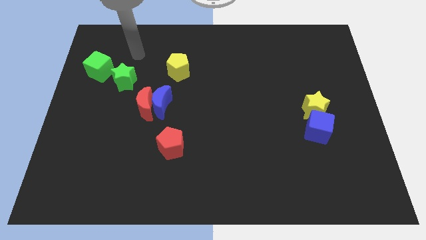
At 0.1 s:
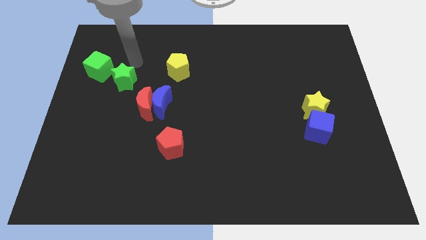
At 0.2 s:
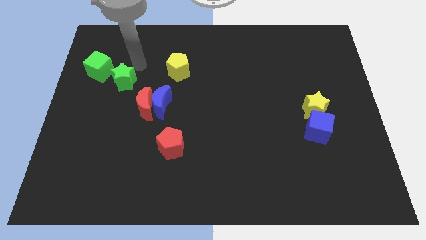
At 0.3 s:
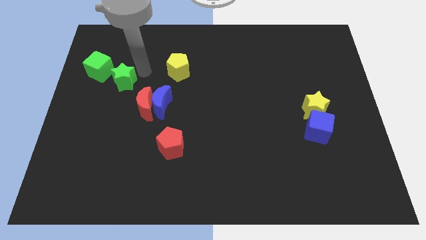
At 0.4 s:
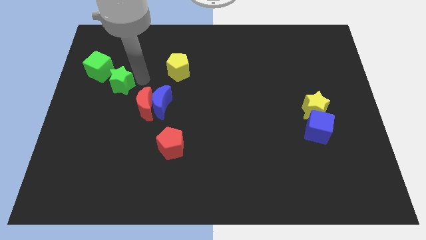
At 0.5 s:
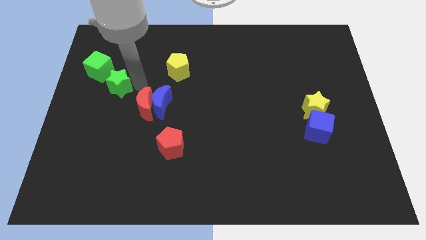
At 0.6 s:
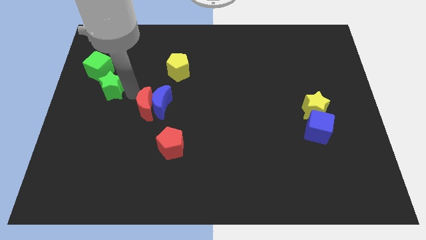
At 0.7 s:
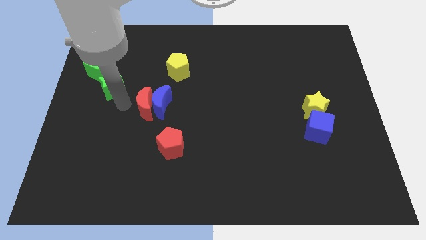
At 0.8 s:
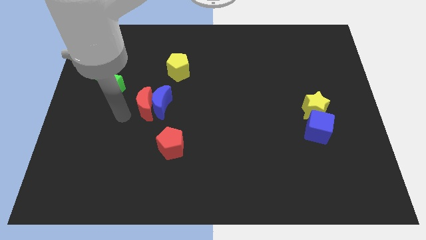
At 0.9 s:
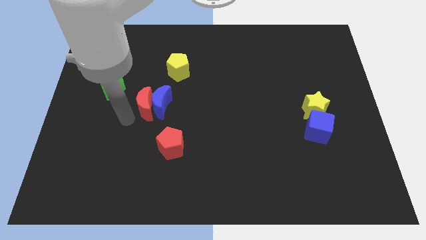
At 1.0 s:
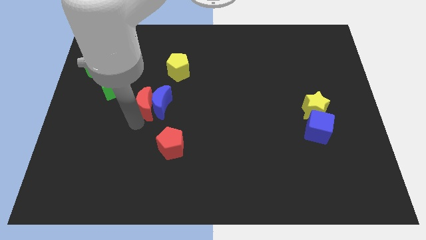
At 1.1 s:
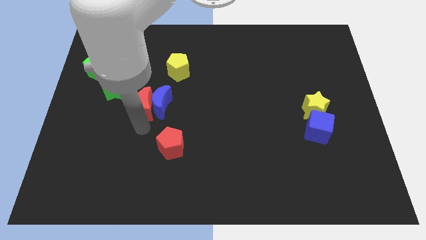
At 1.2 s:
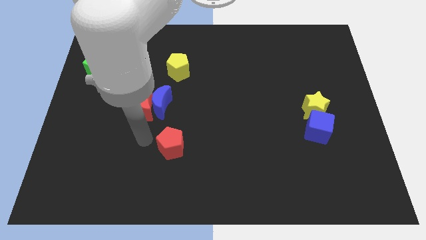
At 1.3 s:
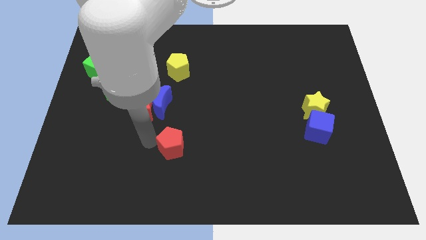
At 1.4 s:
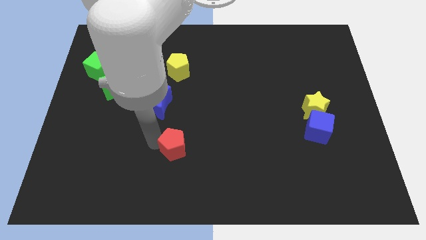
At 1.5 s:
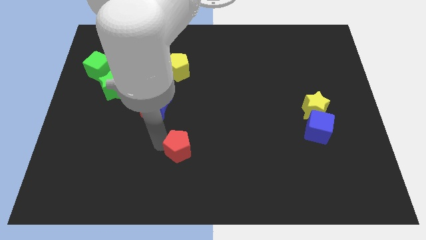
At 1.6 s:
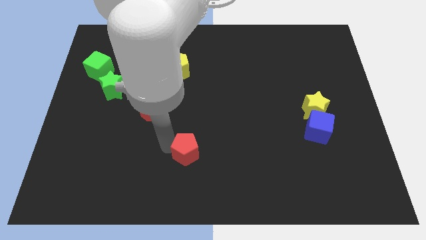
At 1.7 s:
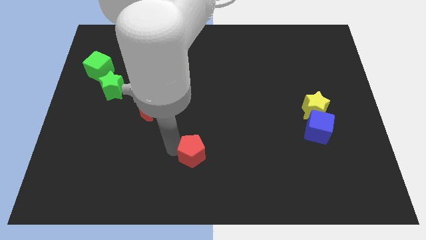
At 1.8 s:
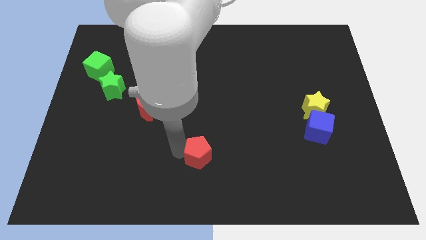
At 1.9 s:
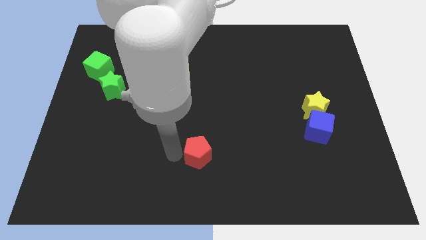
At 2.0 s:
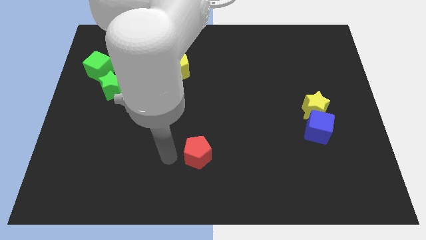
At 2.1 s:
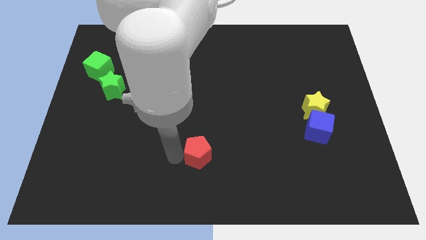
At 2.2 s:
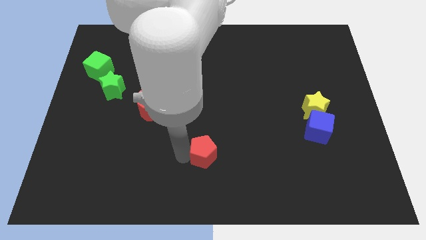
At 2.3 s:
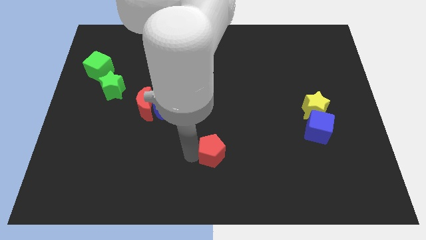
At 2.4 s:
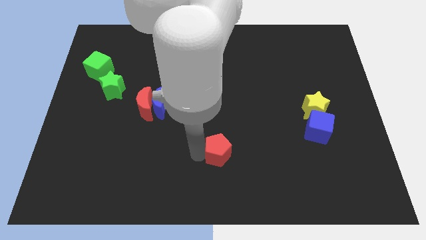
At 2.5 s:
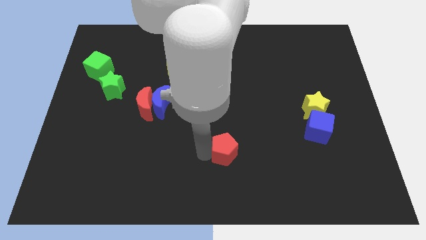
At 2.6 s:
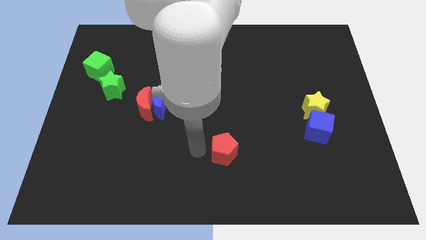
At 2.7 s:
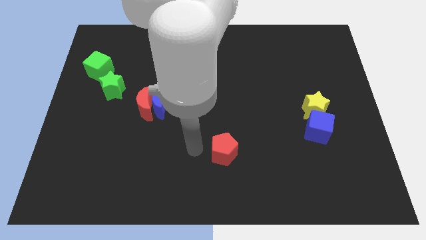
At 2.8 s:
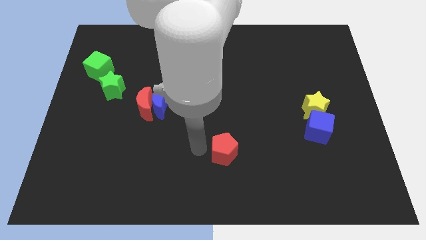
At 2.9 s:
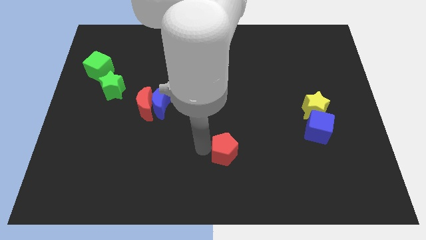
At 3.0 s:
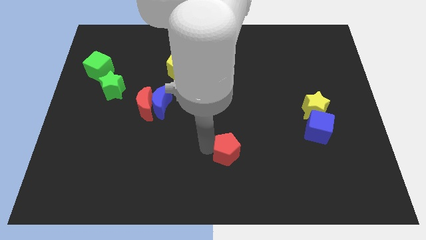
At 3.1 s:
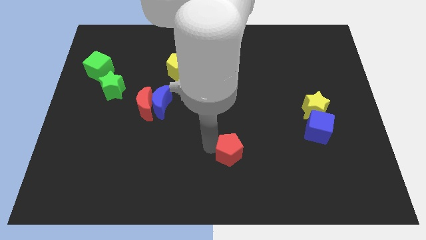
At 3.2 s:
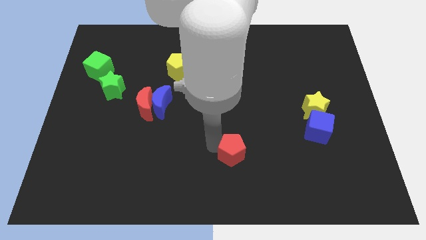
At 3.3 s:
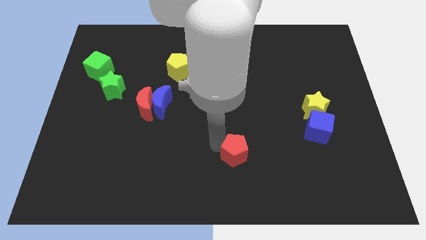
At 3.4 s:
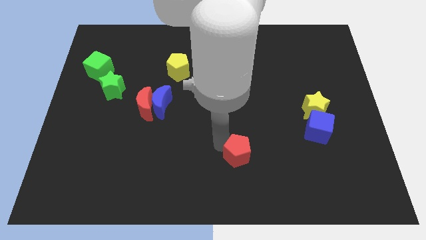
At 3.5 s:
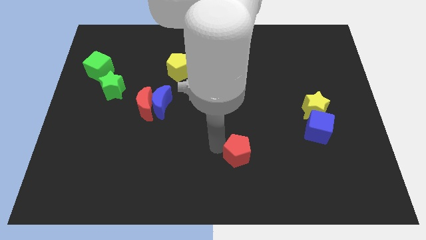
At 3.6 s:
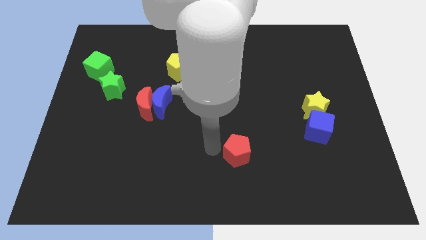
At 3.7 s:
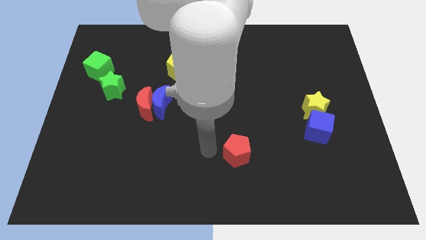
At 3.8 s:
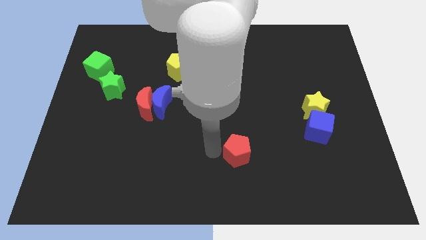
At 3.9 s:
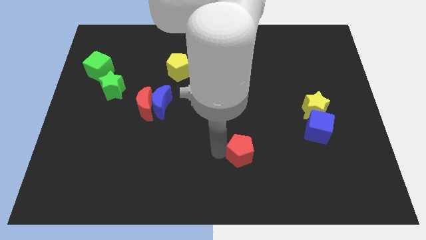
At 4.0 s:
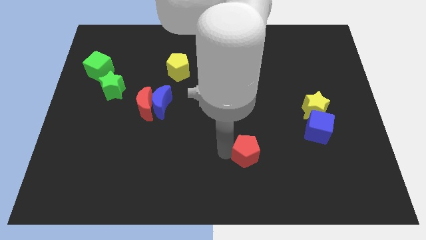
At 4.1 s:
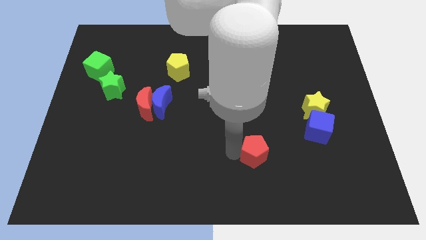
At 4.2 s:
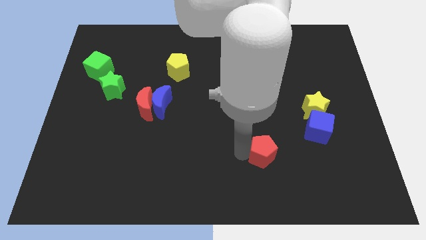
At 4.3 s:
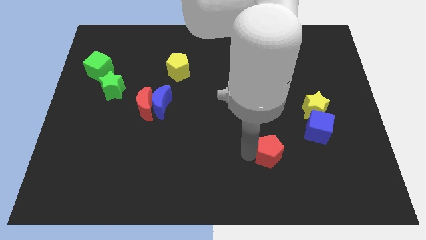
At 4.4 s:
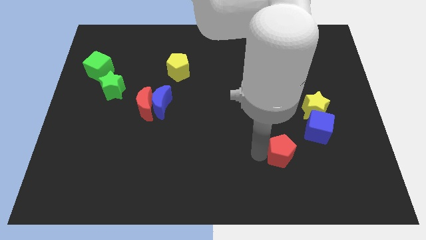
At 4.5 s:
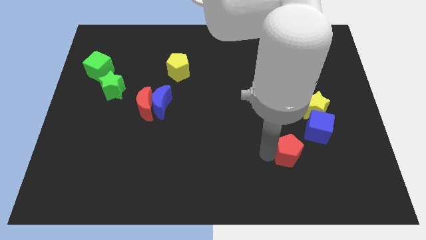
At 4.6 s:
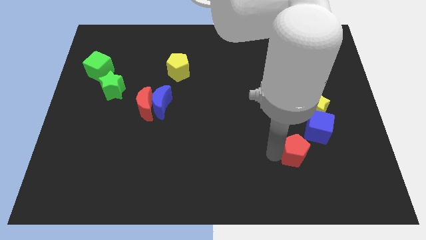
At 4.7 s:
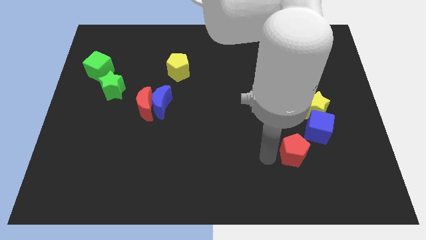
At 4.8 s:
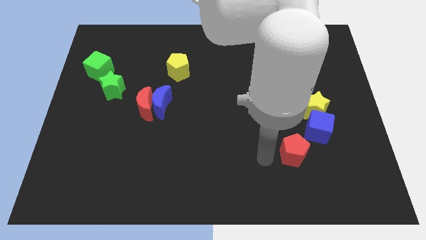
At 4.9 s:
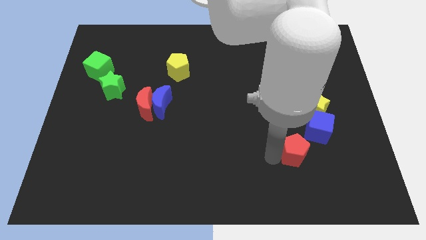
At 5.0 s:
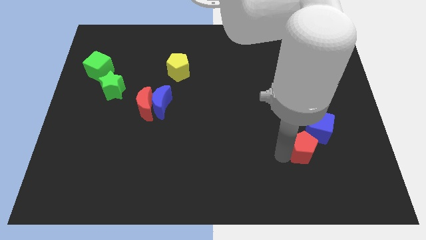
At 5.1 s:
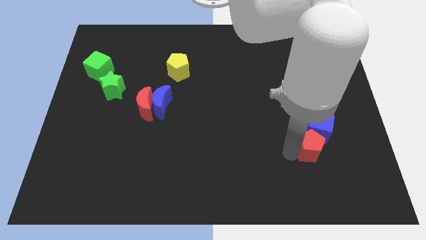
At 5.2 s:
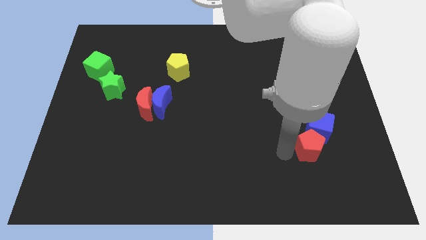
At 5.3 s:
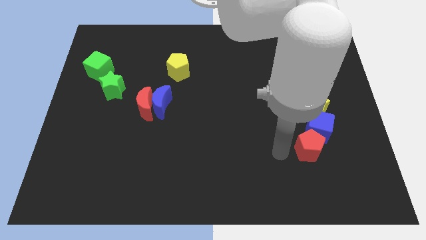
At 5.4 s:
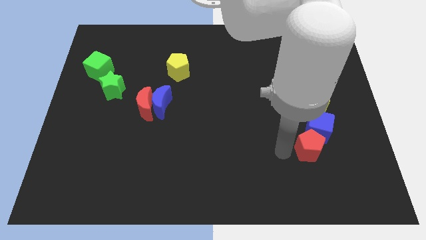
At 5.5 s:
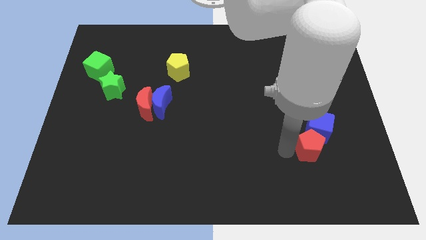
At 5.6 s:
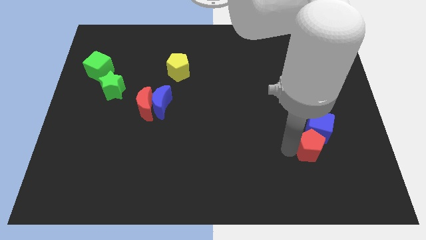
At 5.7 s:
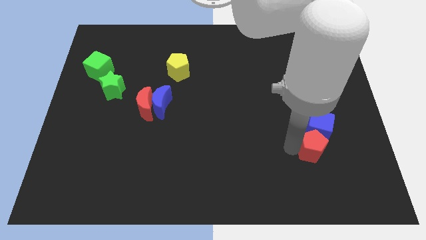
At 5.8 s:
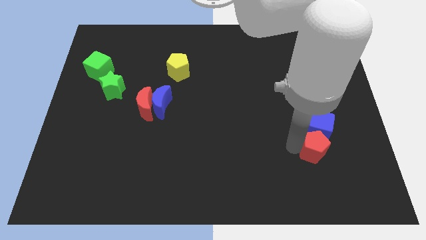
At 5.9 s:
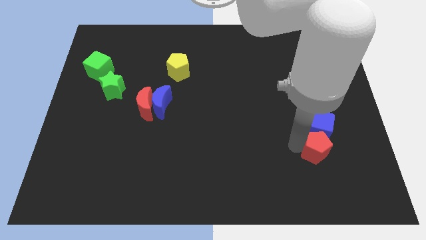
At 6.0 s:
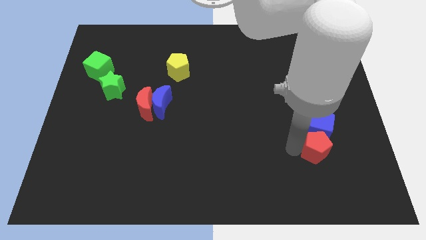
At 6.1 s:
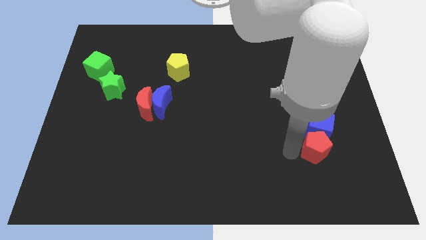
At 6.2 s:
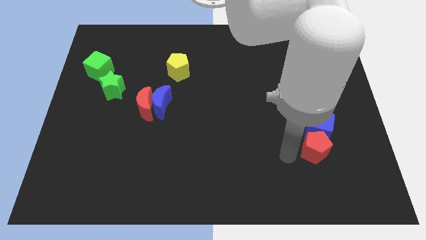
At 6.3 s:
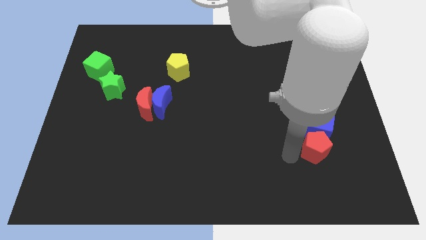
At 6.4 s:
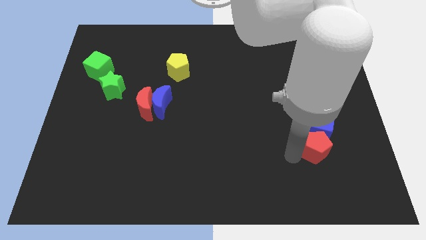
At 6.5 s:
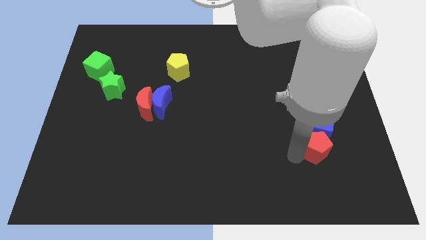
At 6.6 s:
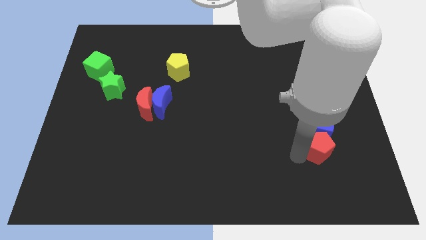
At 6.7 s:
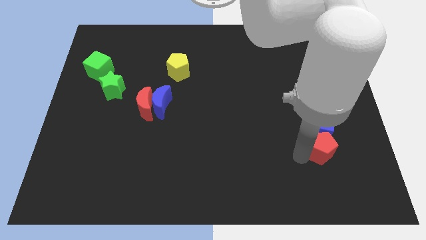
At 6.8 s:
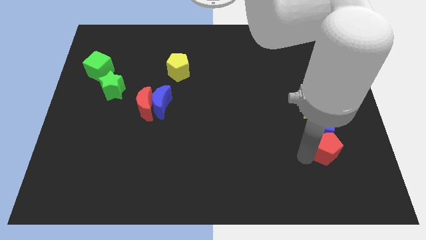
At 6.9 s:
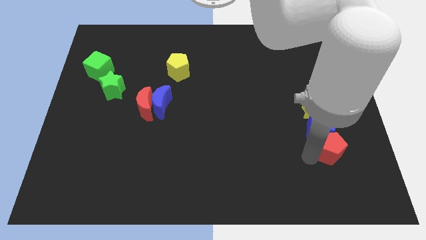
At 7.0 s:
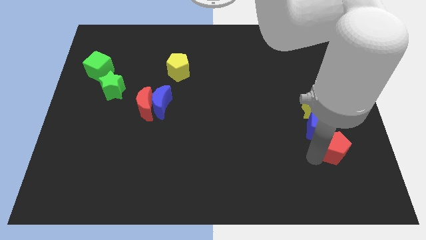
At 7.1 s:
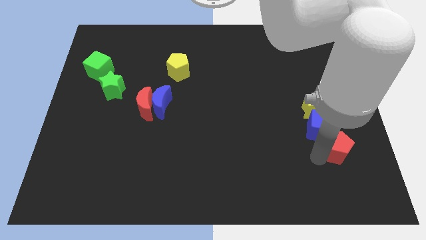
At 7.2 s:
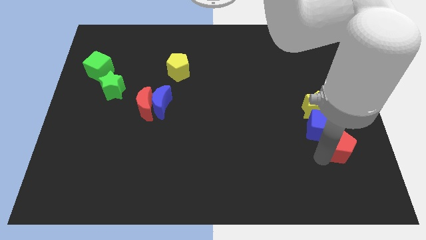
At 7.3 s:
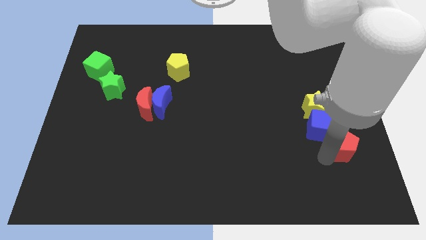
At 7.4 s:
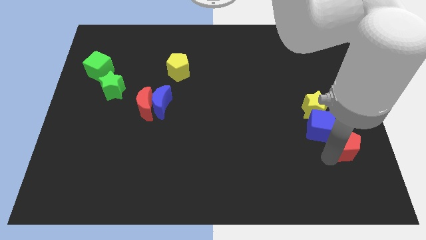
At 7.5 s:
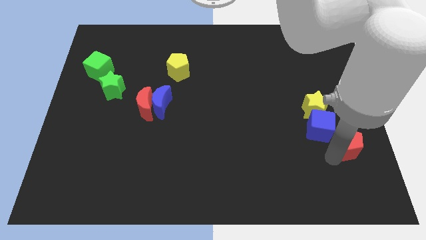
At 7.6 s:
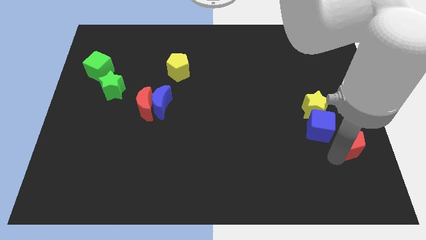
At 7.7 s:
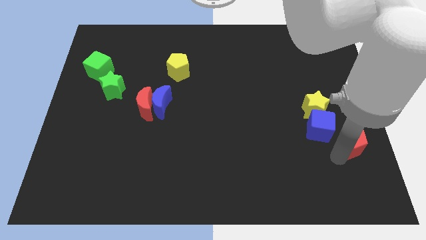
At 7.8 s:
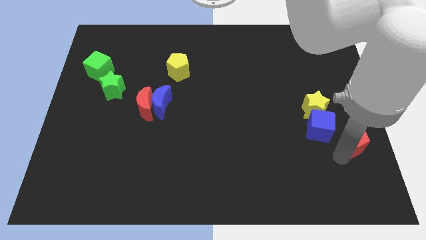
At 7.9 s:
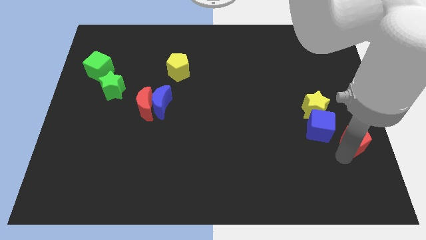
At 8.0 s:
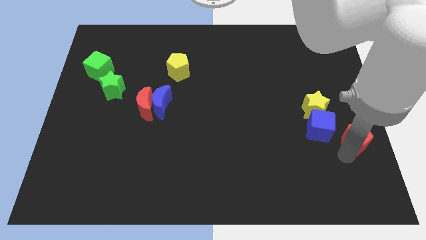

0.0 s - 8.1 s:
slide the red pentagon to the center right
